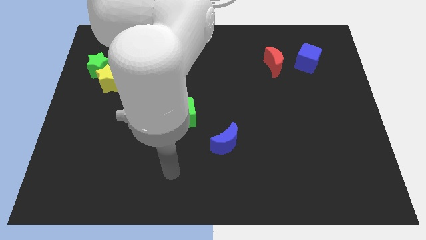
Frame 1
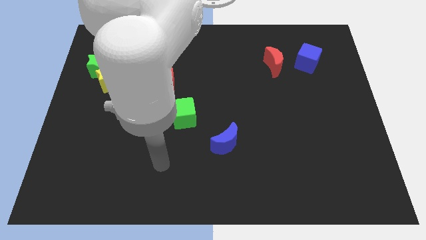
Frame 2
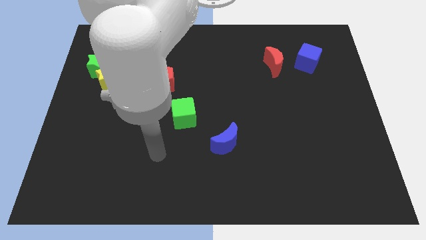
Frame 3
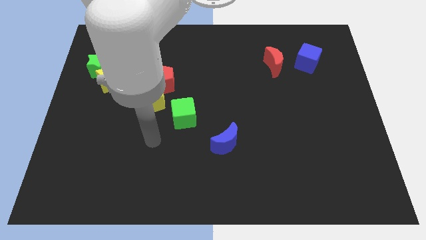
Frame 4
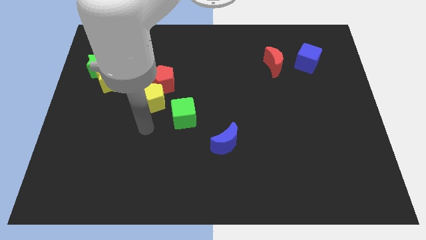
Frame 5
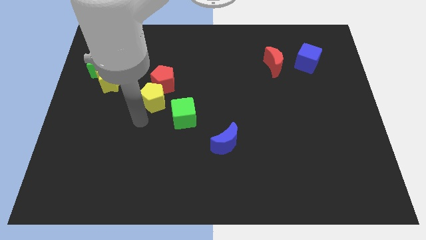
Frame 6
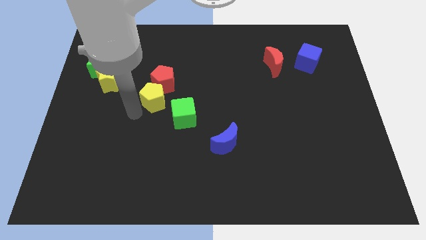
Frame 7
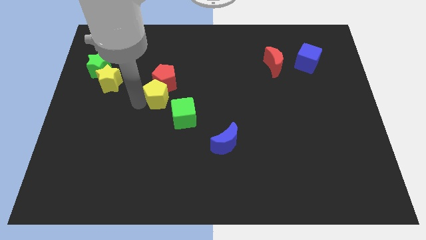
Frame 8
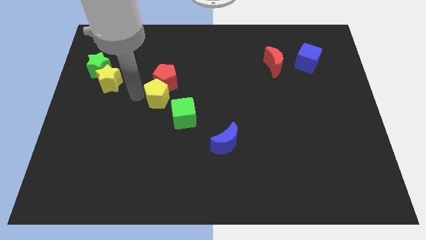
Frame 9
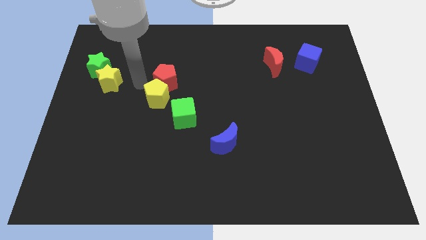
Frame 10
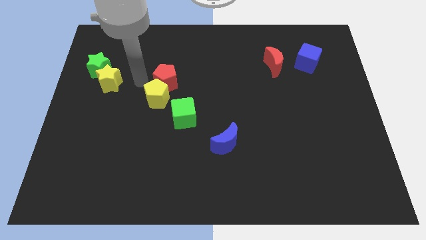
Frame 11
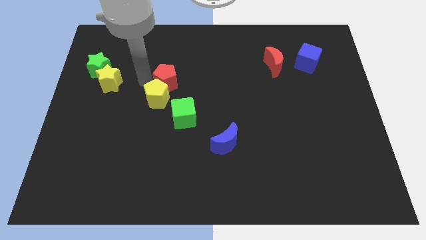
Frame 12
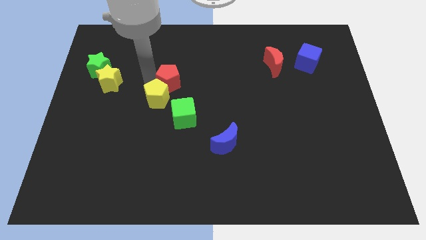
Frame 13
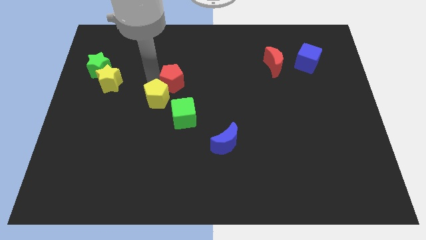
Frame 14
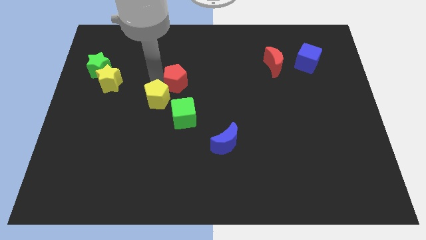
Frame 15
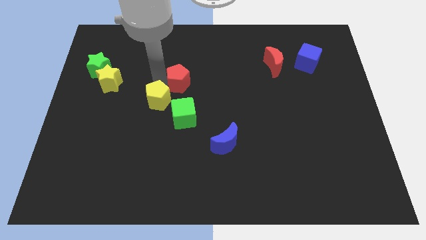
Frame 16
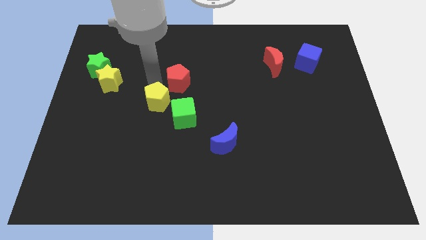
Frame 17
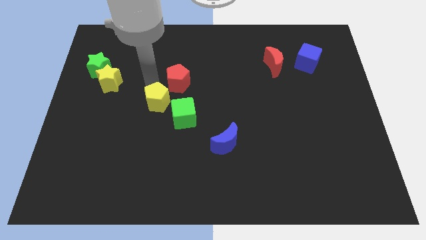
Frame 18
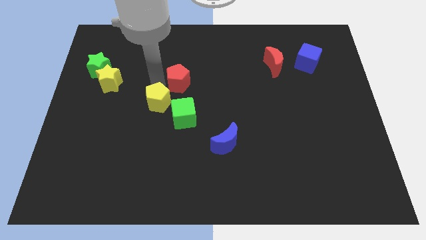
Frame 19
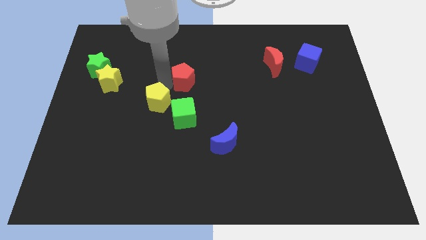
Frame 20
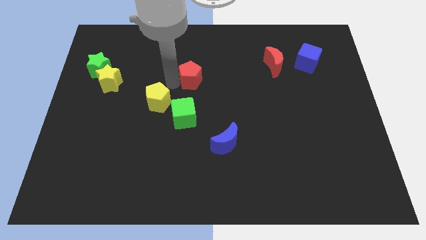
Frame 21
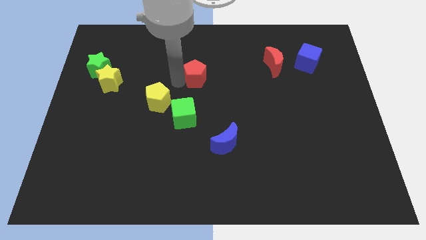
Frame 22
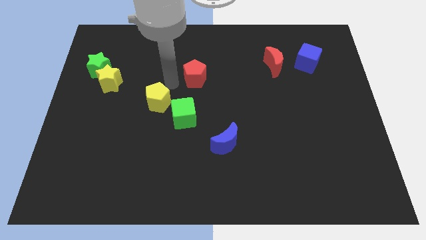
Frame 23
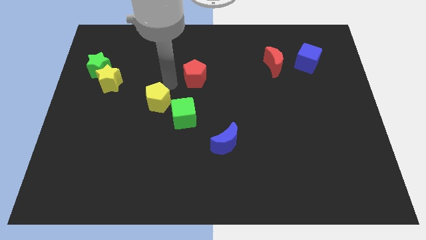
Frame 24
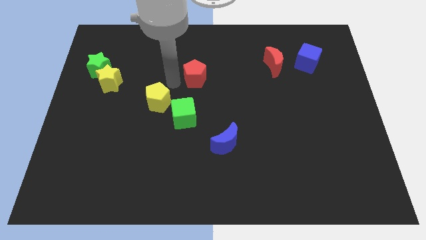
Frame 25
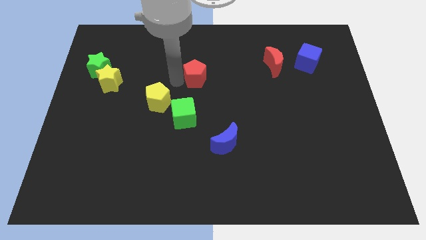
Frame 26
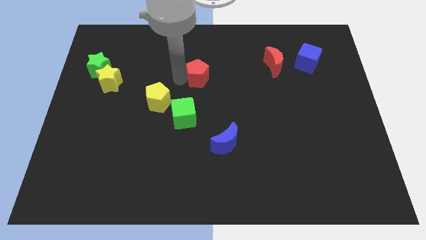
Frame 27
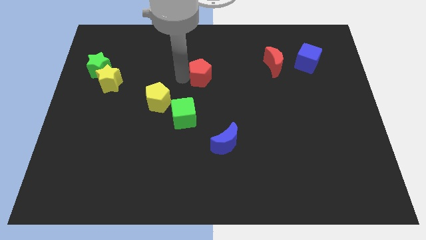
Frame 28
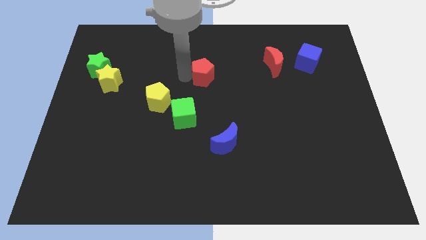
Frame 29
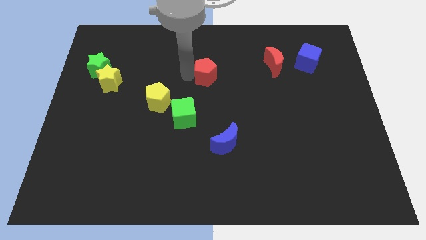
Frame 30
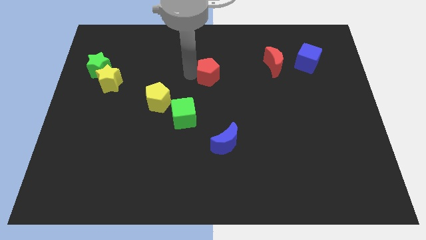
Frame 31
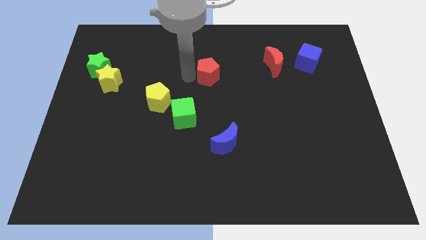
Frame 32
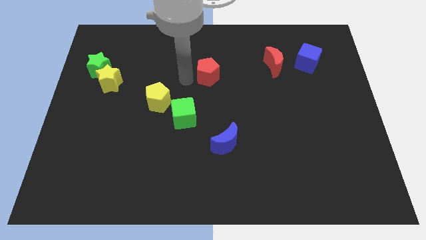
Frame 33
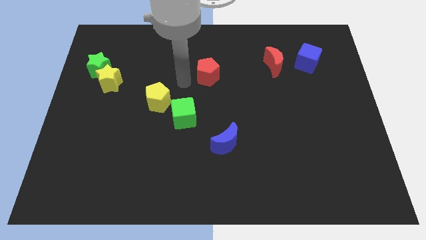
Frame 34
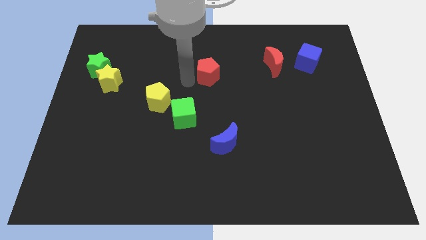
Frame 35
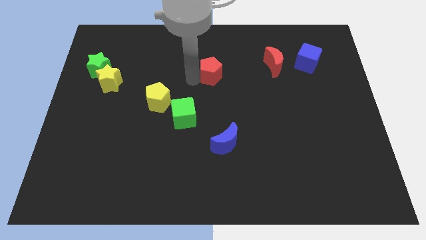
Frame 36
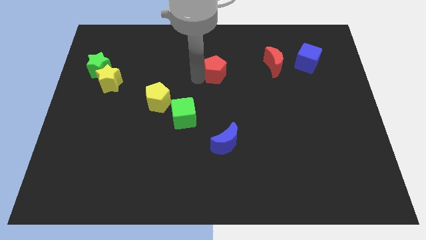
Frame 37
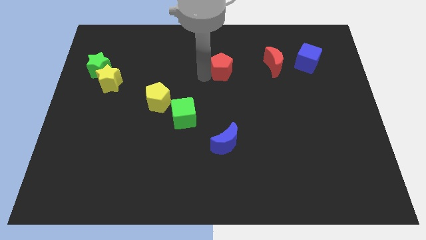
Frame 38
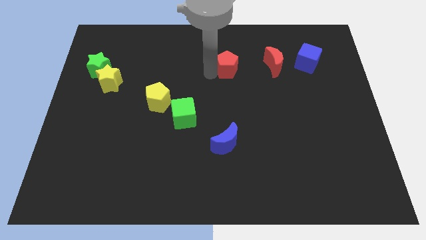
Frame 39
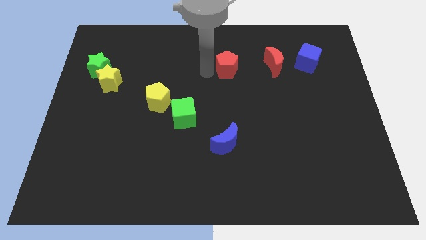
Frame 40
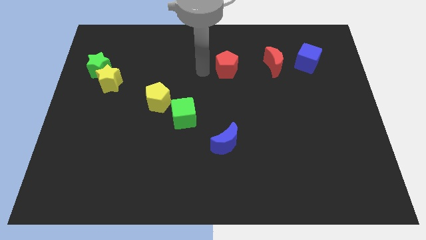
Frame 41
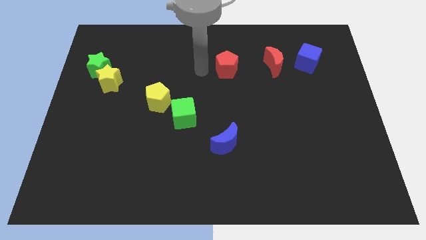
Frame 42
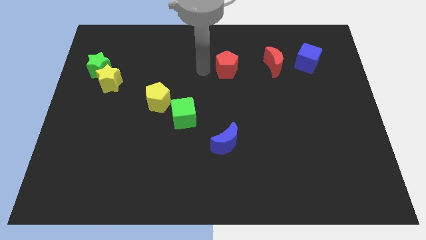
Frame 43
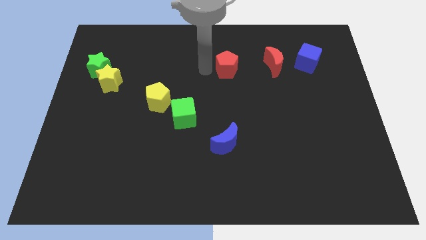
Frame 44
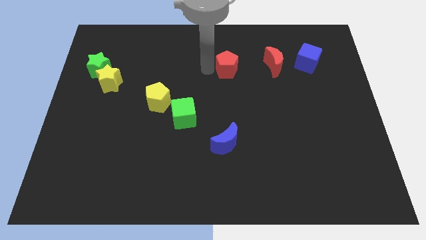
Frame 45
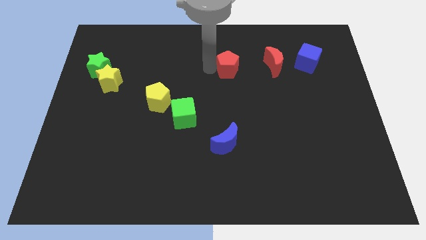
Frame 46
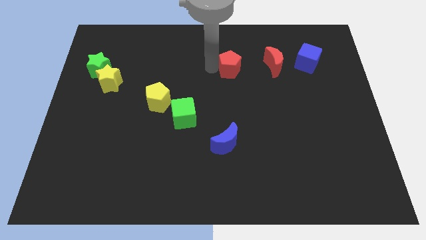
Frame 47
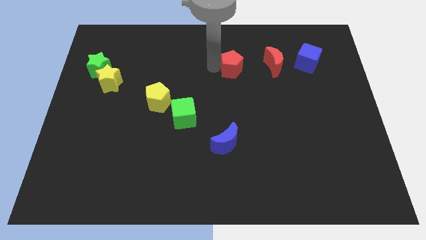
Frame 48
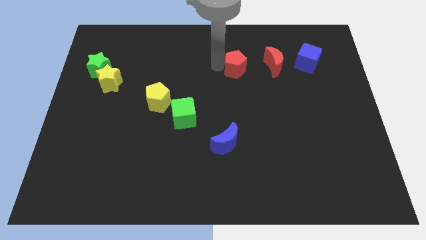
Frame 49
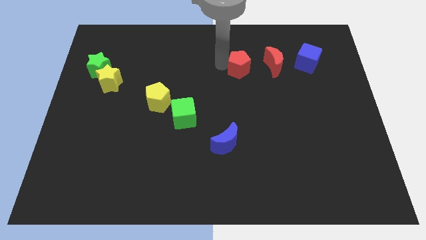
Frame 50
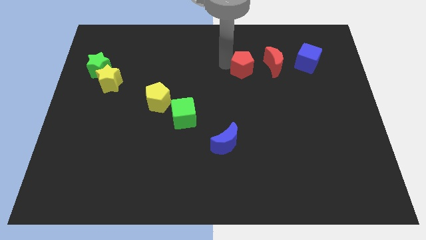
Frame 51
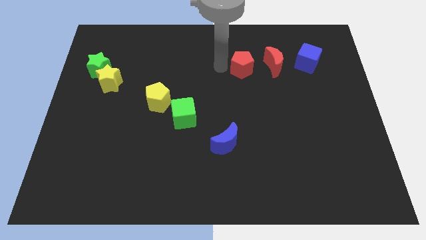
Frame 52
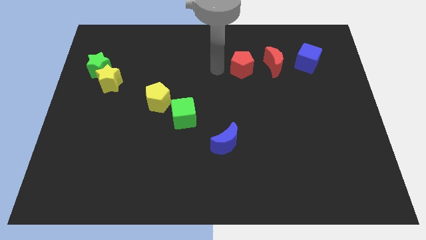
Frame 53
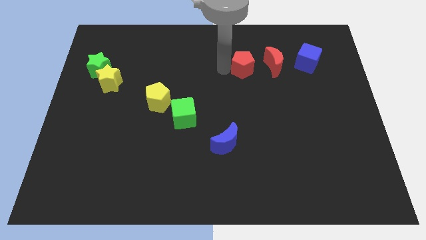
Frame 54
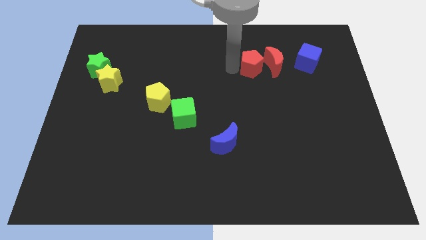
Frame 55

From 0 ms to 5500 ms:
slide the red pentagon towards the red moon

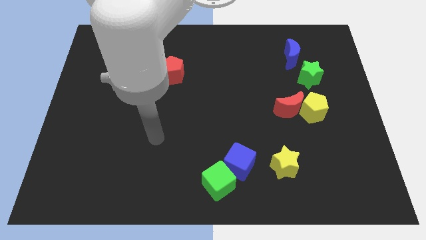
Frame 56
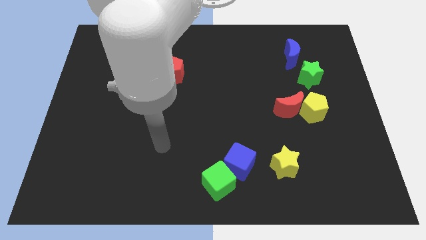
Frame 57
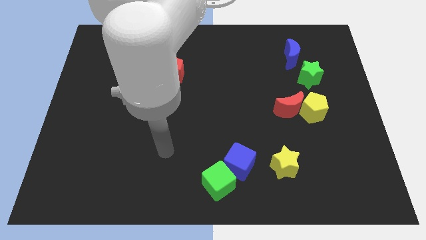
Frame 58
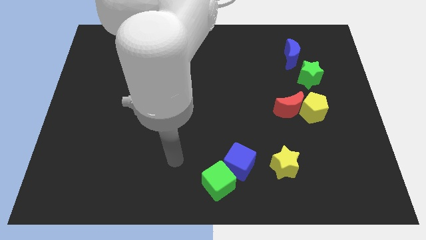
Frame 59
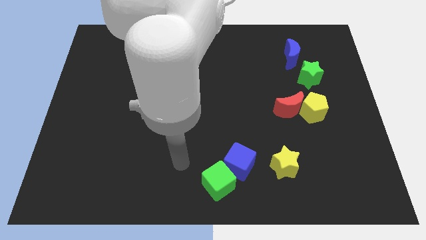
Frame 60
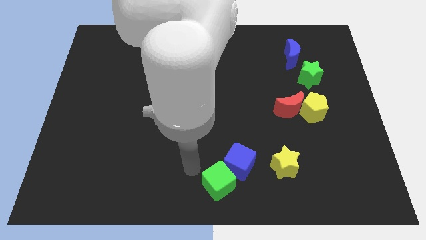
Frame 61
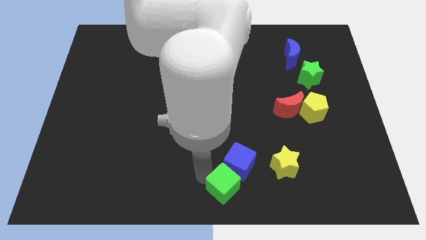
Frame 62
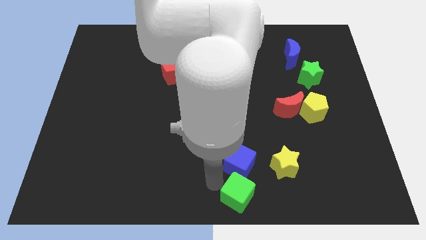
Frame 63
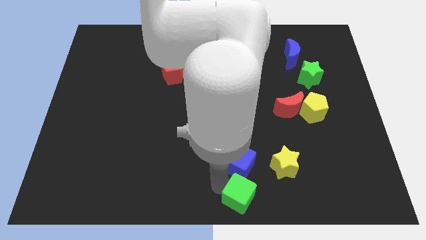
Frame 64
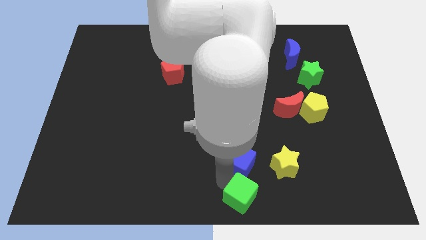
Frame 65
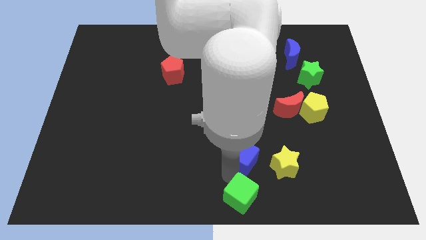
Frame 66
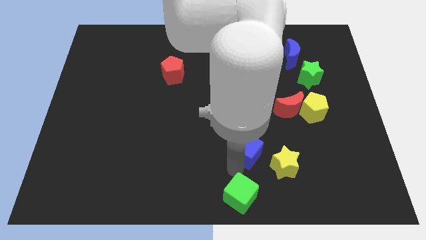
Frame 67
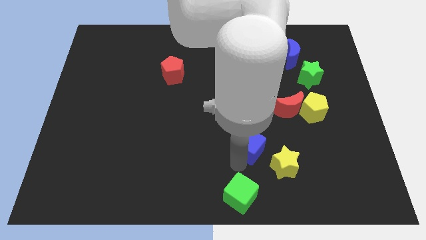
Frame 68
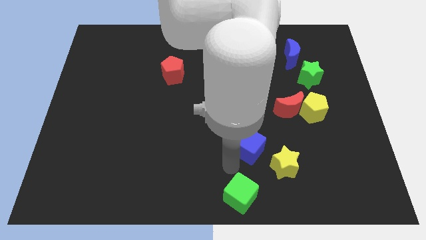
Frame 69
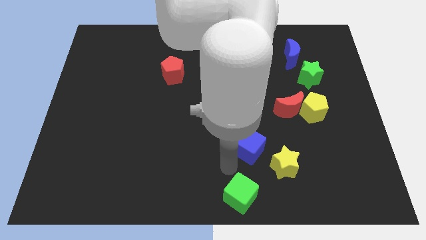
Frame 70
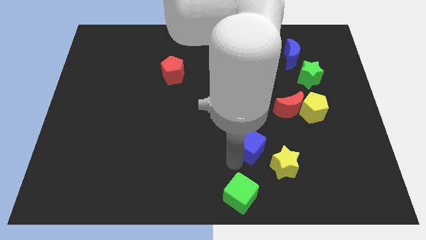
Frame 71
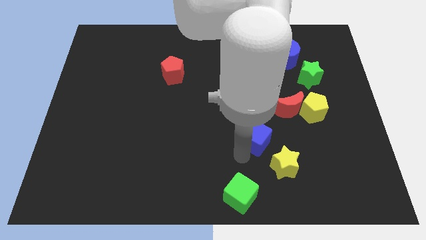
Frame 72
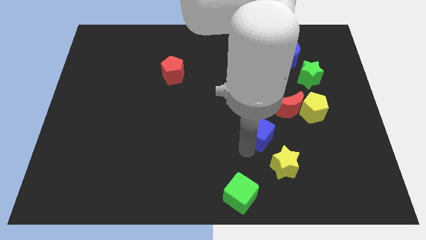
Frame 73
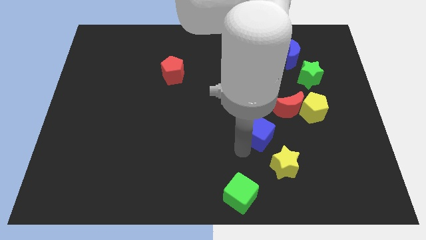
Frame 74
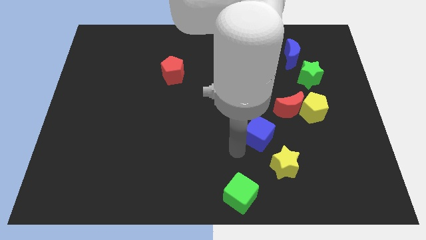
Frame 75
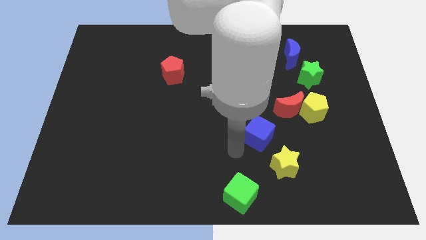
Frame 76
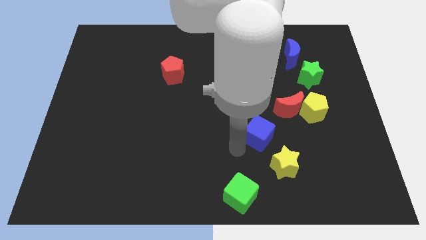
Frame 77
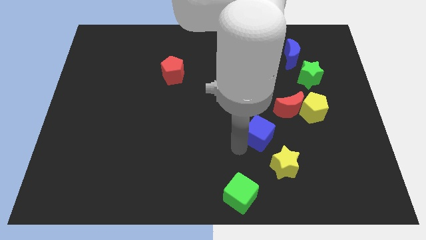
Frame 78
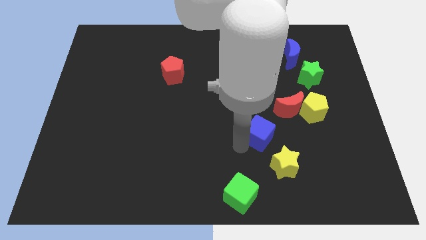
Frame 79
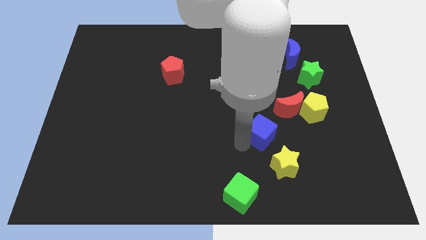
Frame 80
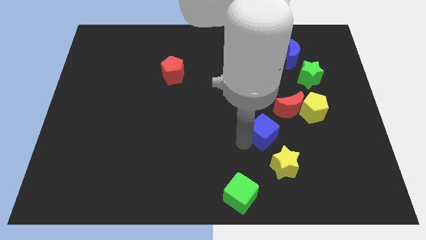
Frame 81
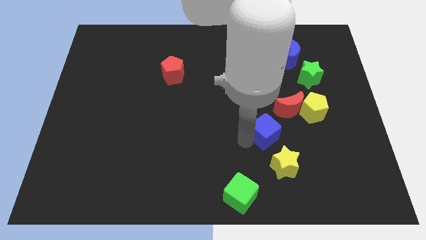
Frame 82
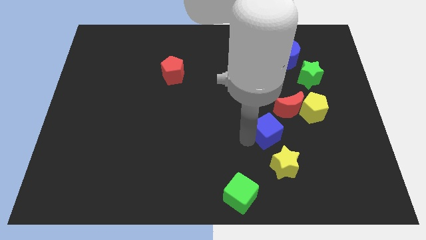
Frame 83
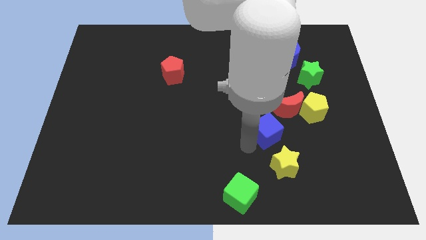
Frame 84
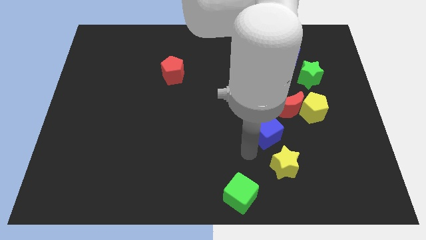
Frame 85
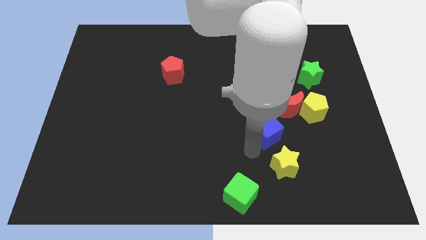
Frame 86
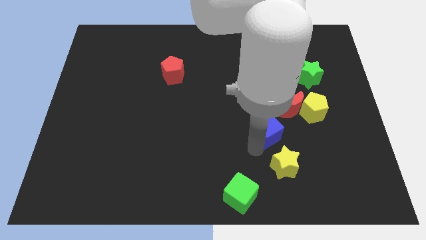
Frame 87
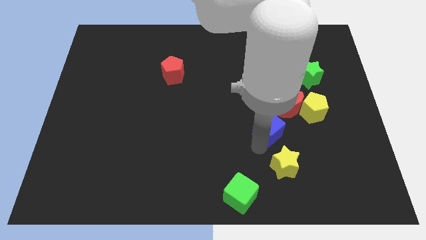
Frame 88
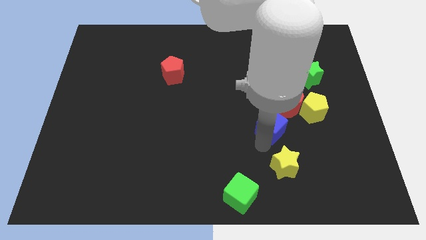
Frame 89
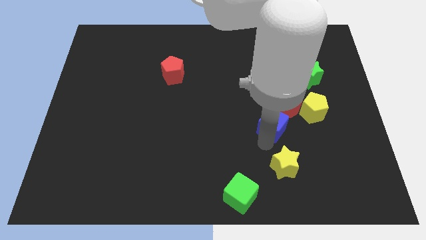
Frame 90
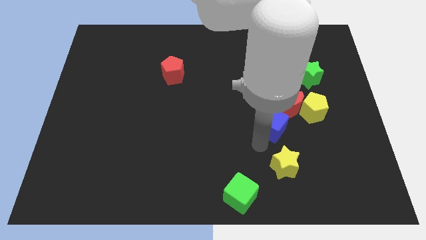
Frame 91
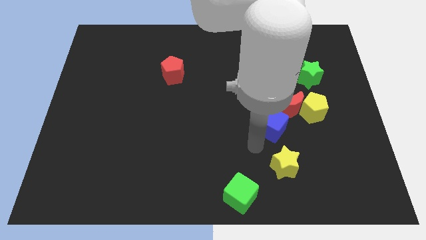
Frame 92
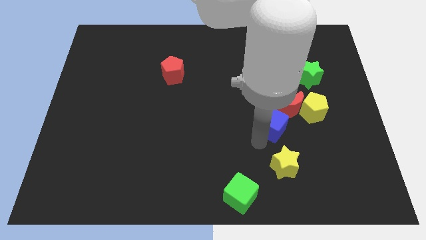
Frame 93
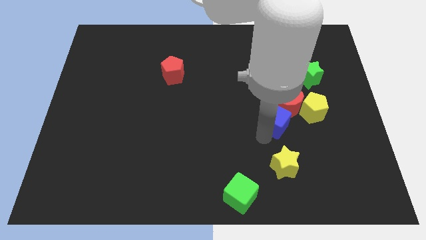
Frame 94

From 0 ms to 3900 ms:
push the blue cube towards the red moon
